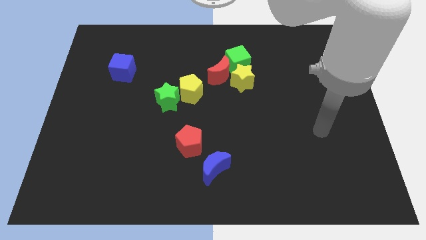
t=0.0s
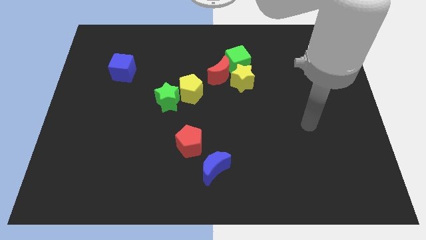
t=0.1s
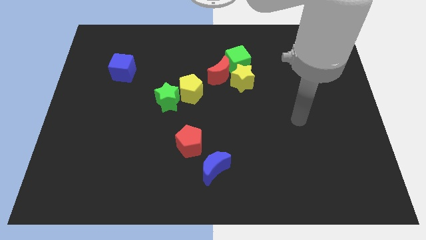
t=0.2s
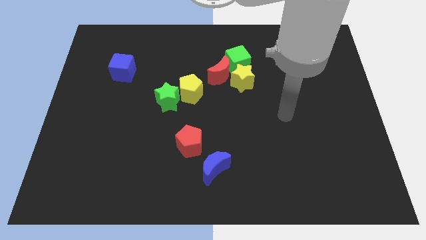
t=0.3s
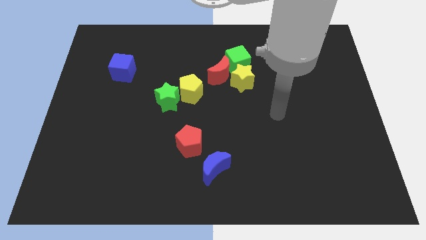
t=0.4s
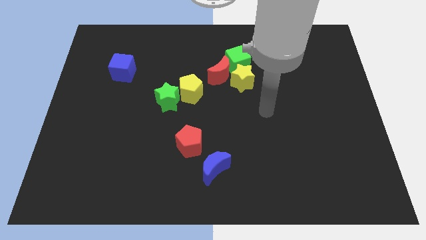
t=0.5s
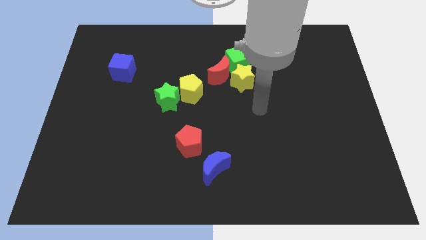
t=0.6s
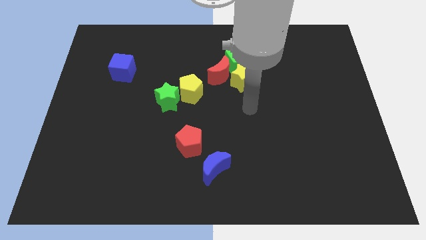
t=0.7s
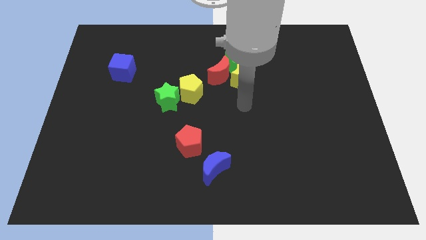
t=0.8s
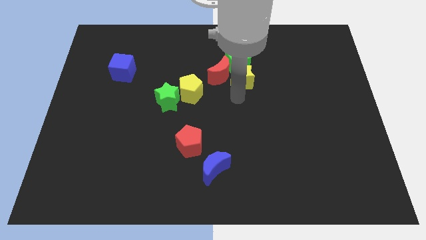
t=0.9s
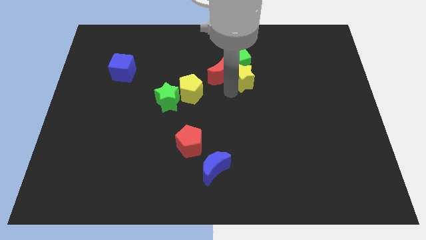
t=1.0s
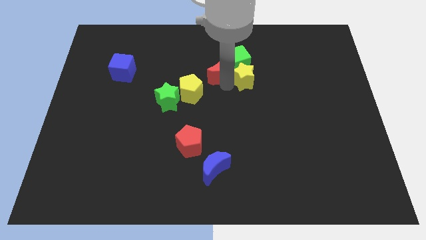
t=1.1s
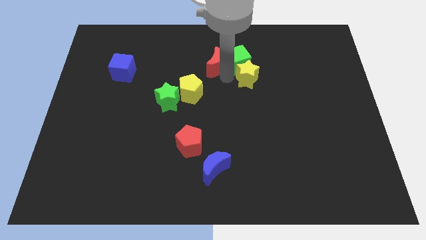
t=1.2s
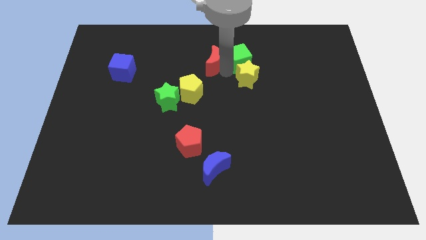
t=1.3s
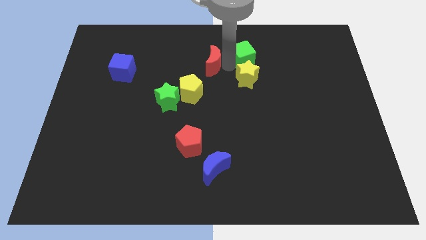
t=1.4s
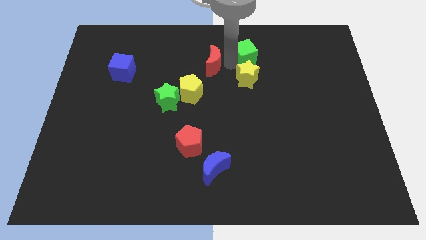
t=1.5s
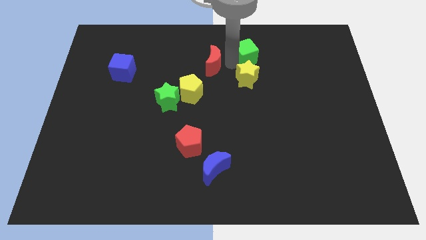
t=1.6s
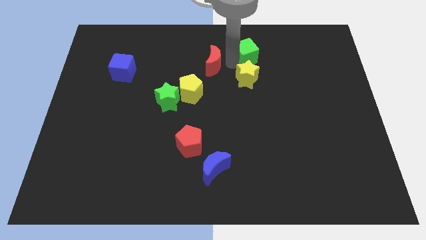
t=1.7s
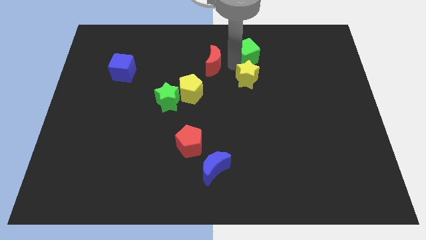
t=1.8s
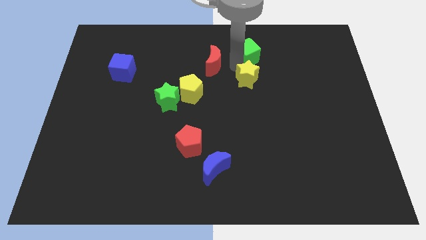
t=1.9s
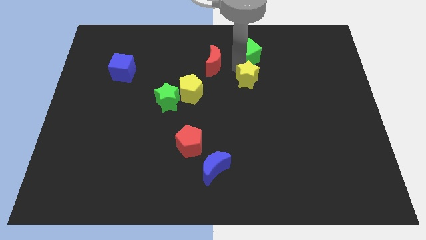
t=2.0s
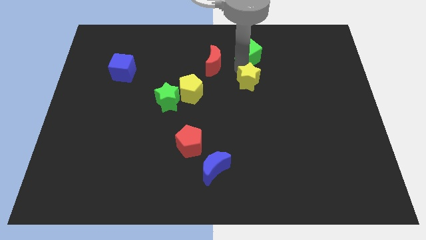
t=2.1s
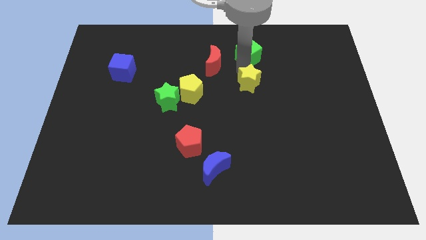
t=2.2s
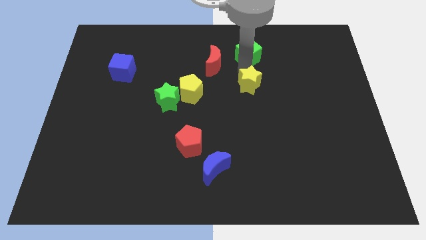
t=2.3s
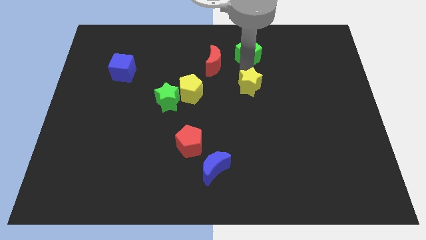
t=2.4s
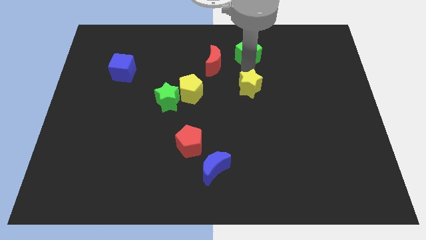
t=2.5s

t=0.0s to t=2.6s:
pull the yellow star apart from the red moon and green cube

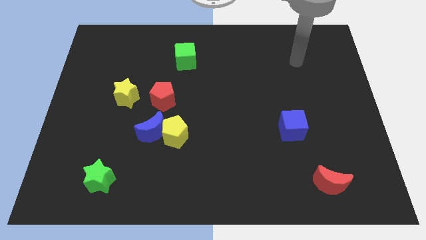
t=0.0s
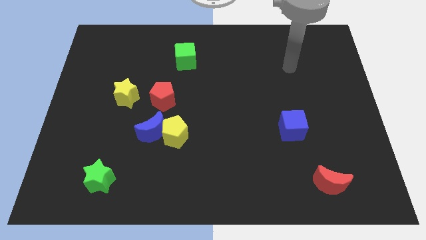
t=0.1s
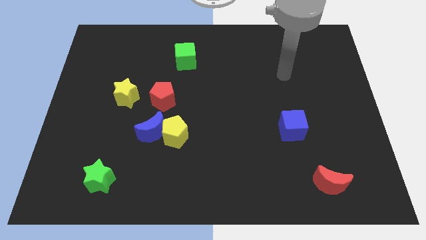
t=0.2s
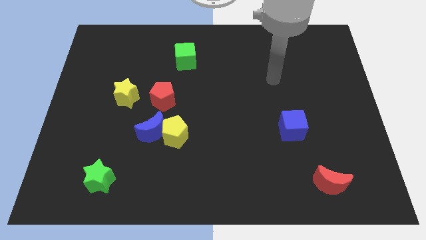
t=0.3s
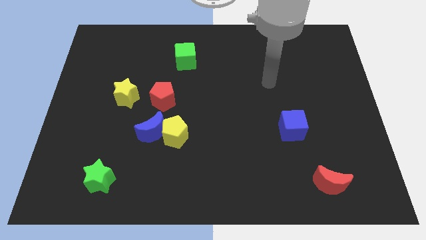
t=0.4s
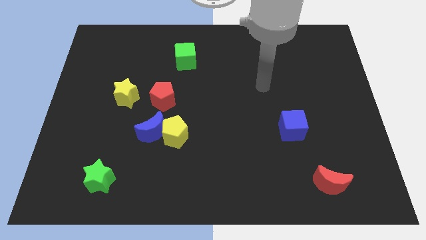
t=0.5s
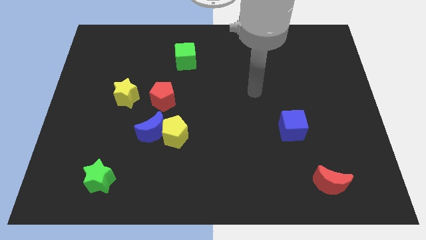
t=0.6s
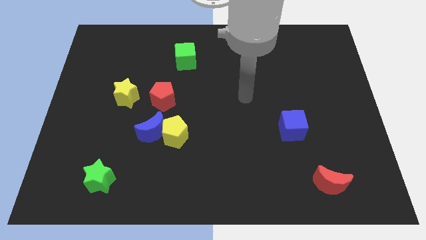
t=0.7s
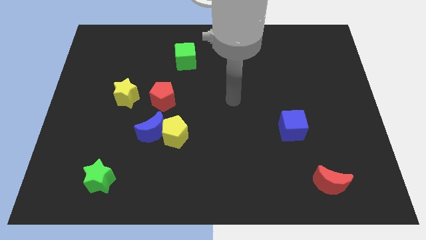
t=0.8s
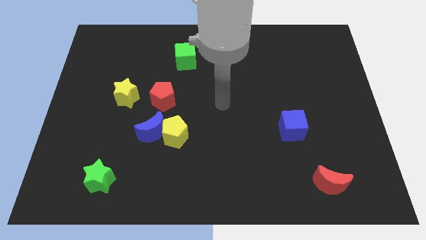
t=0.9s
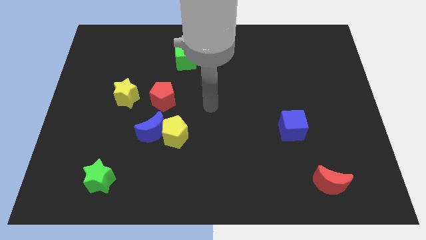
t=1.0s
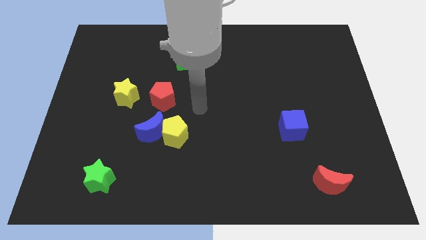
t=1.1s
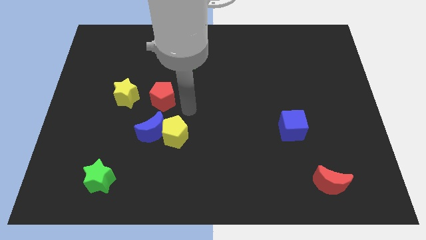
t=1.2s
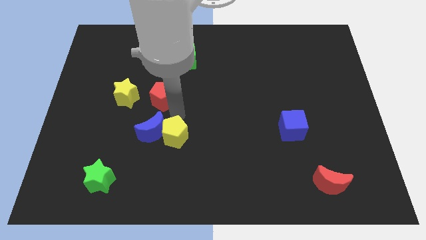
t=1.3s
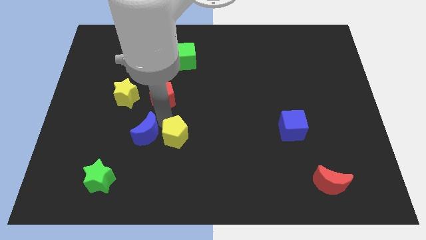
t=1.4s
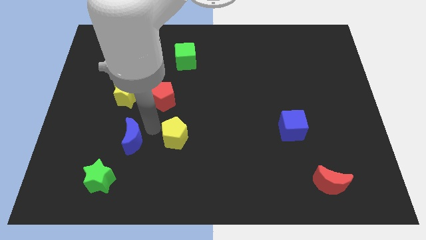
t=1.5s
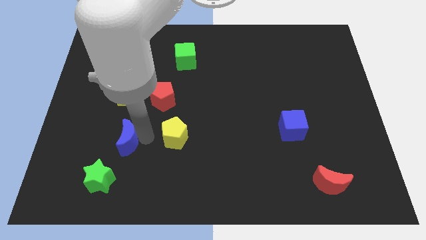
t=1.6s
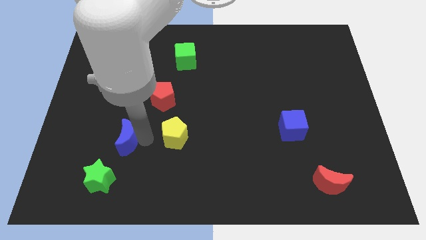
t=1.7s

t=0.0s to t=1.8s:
pull the yellow pentagon apart from the blue moon

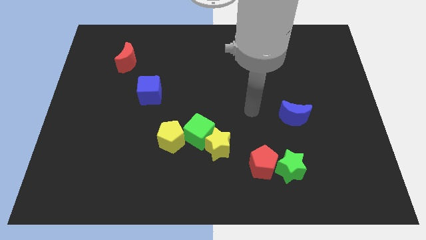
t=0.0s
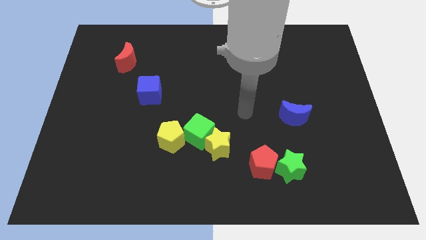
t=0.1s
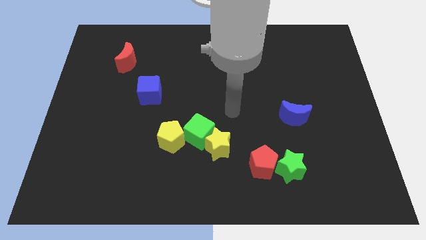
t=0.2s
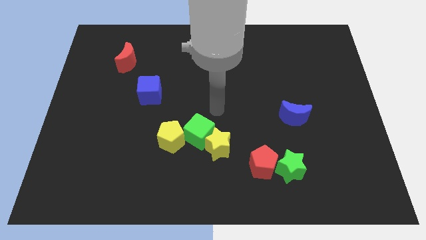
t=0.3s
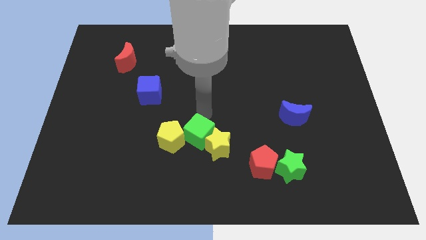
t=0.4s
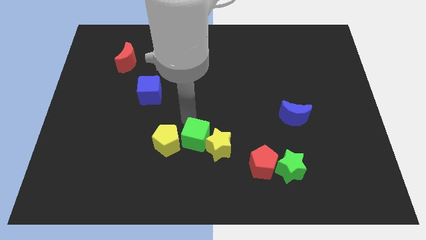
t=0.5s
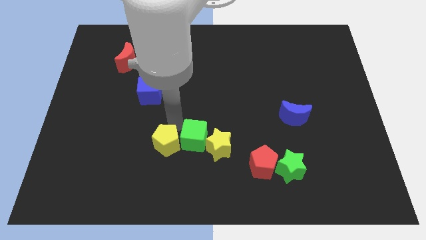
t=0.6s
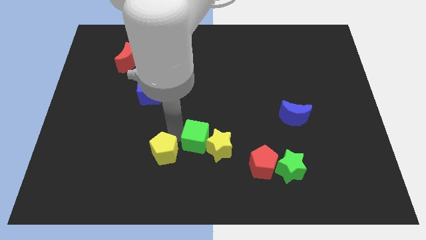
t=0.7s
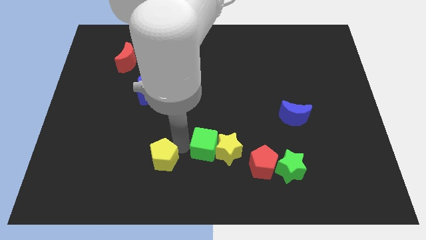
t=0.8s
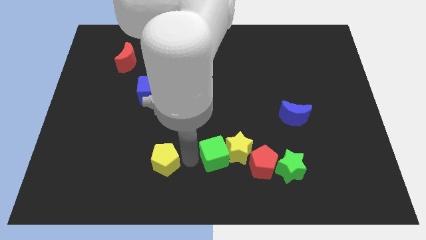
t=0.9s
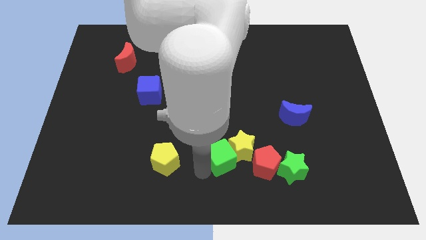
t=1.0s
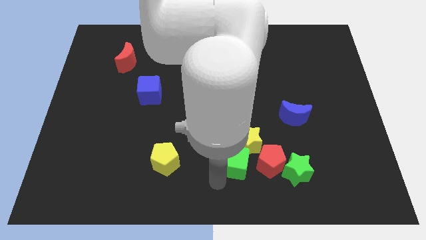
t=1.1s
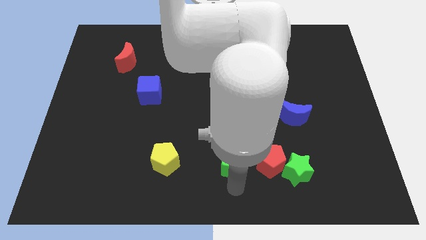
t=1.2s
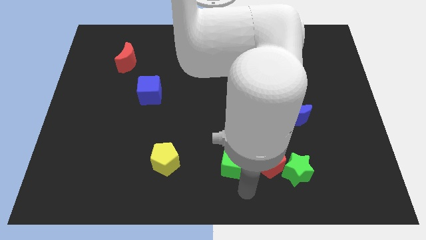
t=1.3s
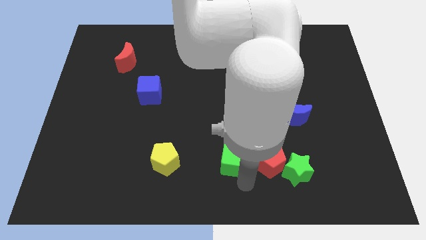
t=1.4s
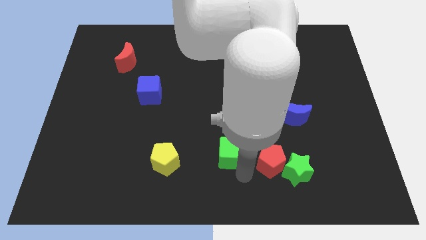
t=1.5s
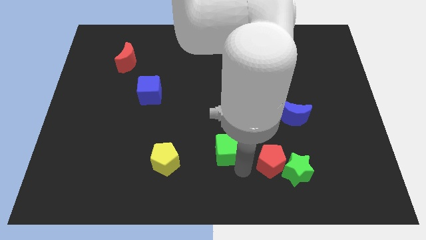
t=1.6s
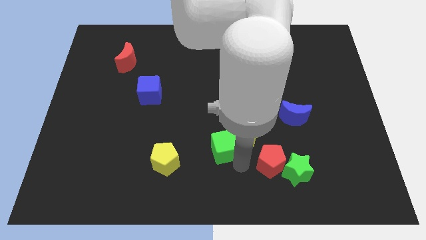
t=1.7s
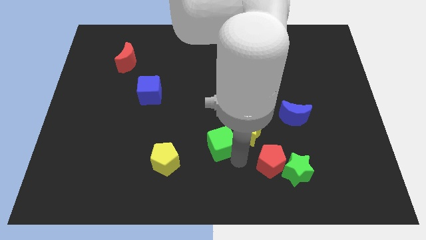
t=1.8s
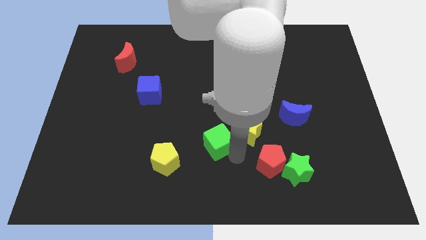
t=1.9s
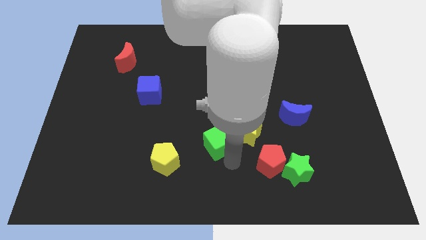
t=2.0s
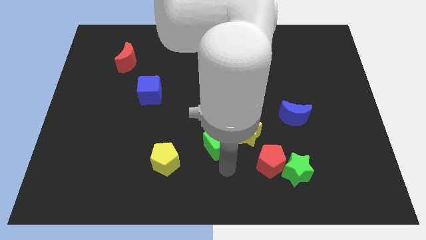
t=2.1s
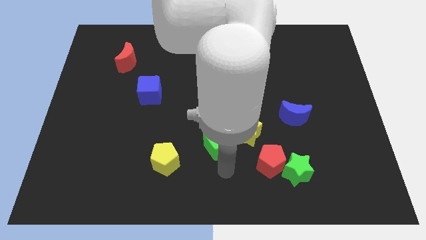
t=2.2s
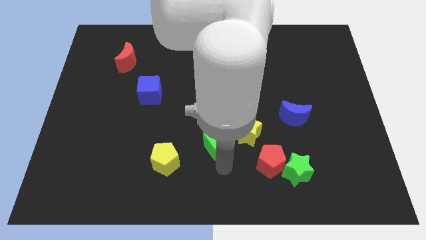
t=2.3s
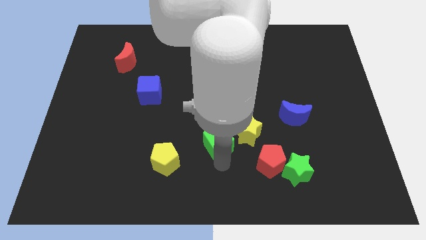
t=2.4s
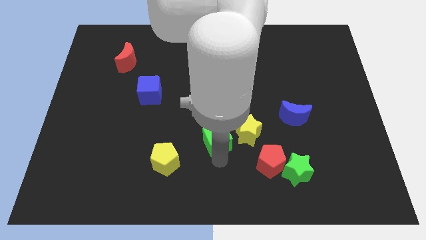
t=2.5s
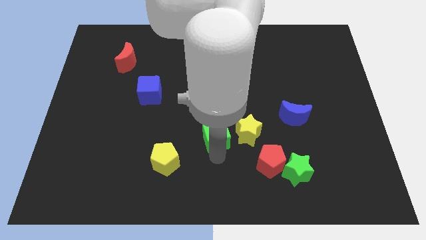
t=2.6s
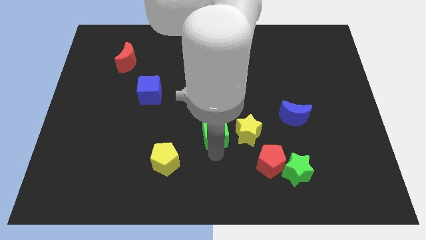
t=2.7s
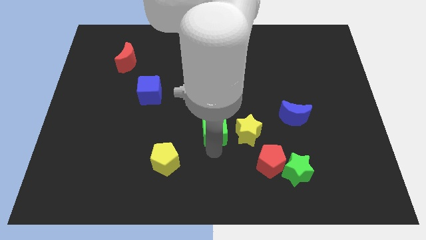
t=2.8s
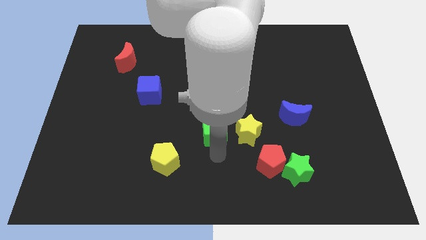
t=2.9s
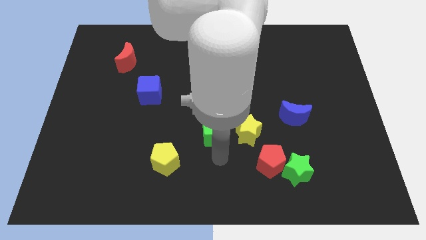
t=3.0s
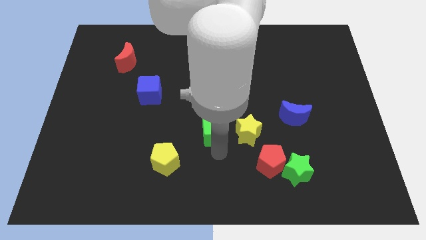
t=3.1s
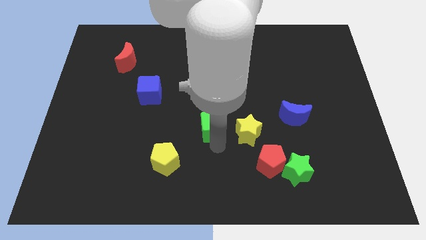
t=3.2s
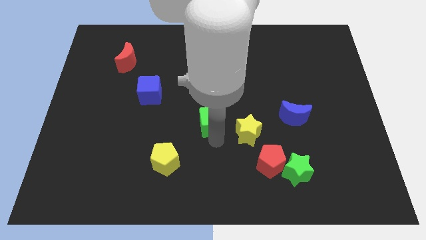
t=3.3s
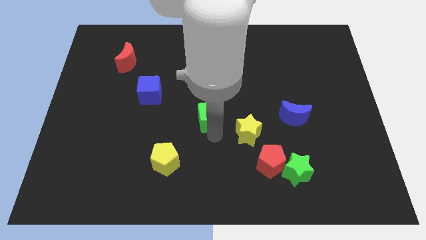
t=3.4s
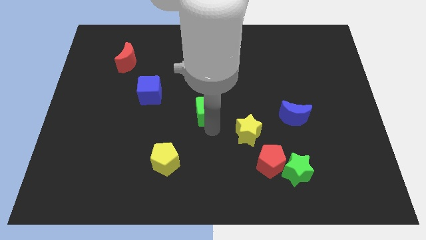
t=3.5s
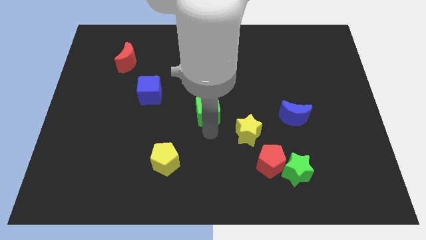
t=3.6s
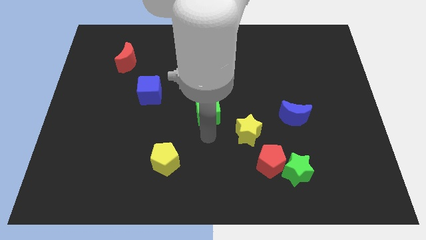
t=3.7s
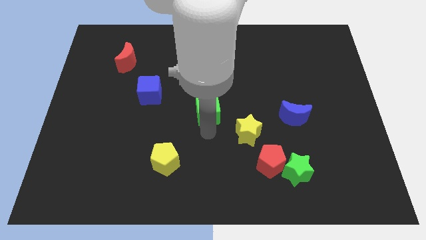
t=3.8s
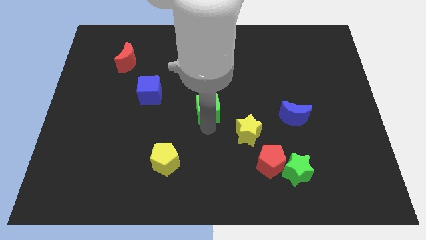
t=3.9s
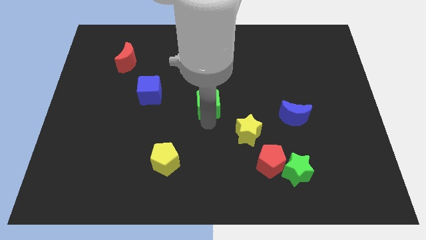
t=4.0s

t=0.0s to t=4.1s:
move the green cube away from the yellow star and yellow pentagon

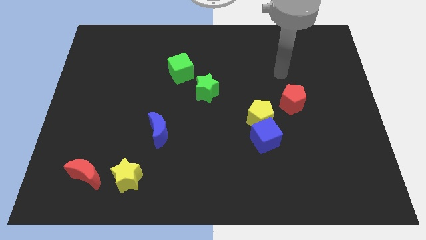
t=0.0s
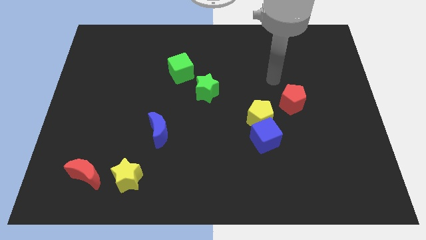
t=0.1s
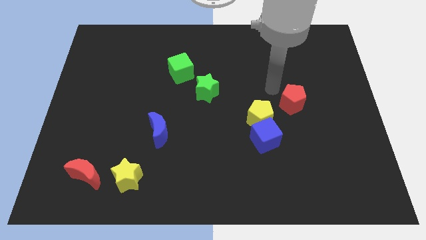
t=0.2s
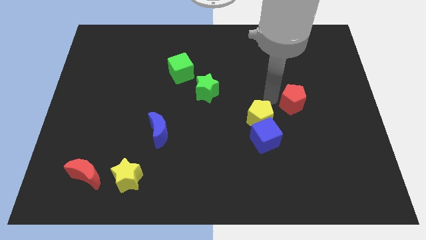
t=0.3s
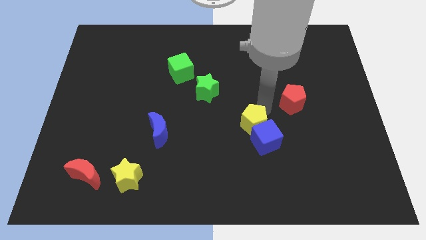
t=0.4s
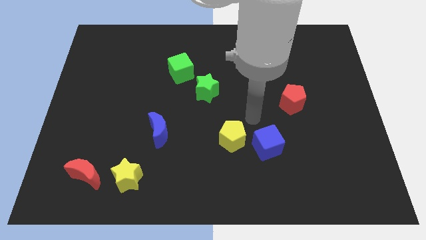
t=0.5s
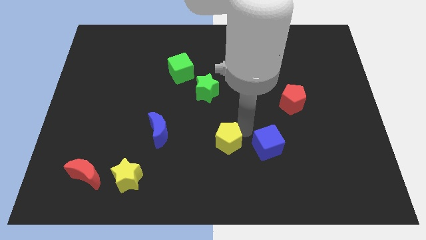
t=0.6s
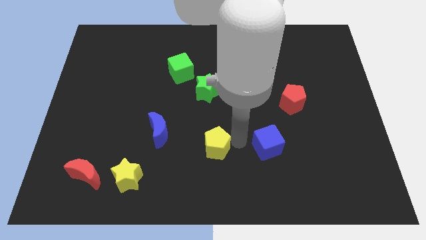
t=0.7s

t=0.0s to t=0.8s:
move the blue cube away from the yellow pentagon

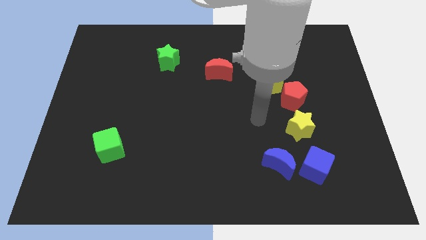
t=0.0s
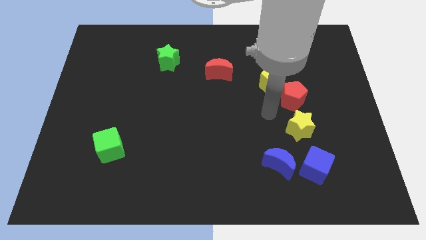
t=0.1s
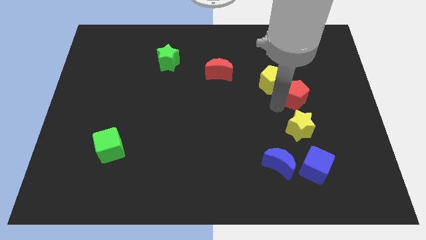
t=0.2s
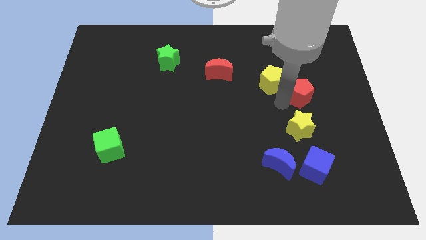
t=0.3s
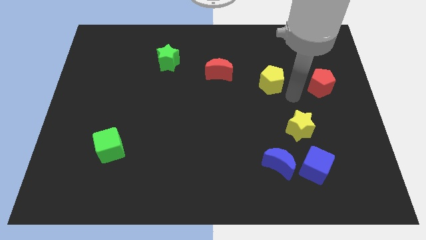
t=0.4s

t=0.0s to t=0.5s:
separate the yellow pentagon from the red pentagon
